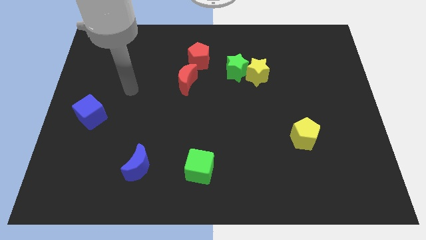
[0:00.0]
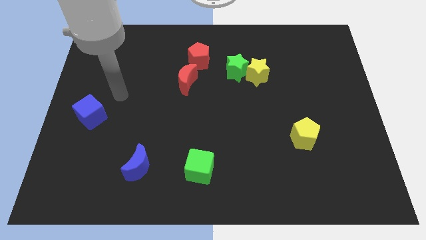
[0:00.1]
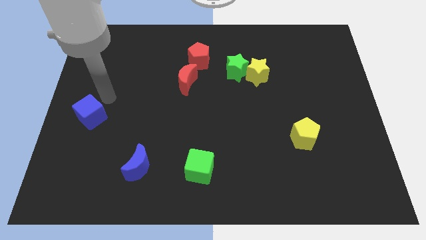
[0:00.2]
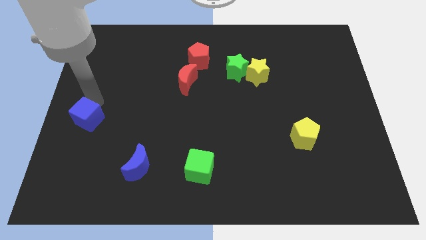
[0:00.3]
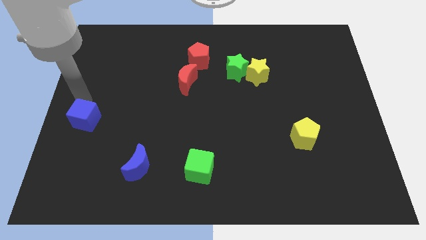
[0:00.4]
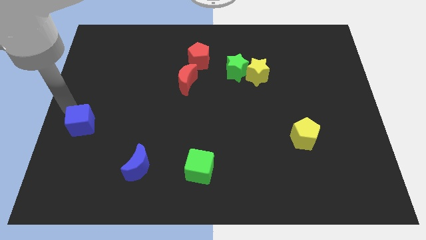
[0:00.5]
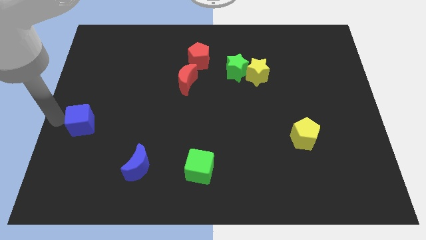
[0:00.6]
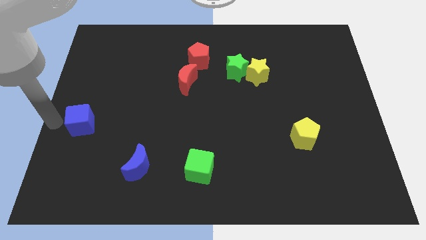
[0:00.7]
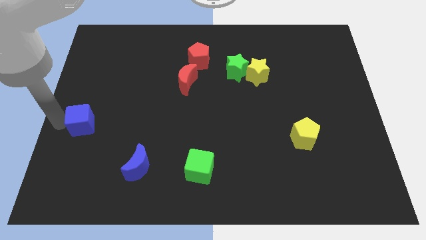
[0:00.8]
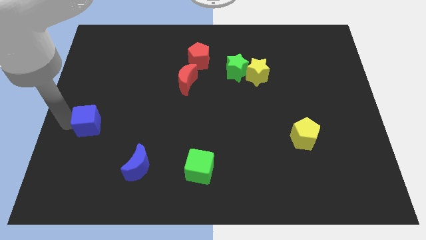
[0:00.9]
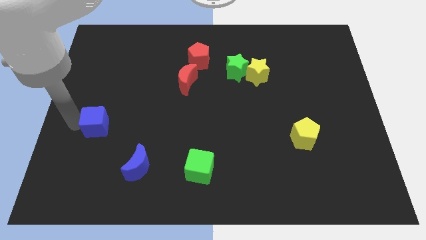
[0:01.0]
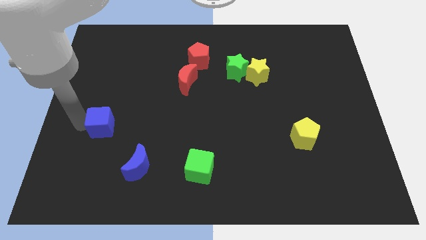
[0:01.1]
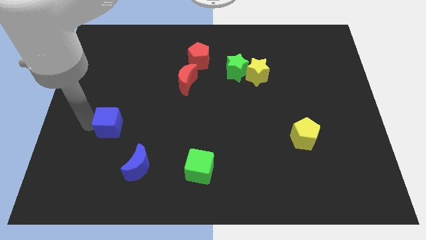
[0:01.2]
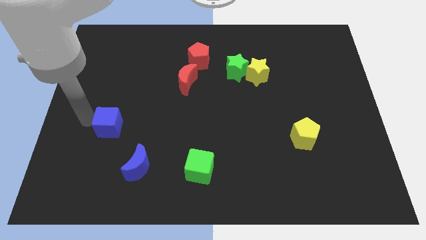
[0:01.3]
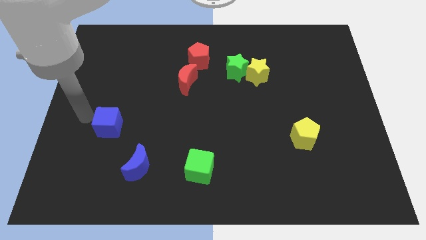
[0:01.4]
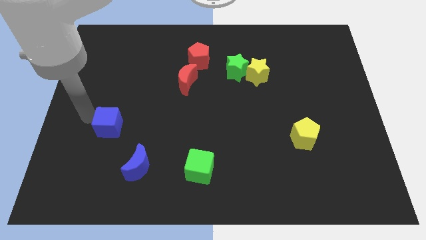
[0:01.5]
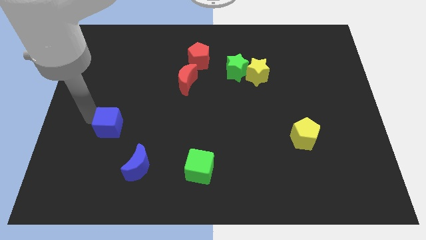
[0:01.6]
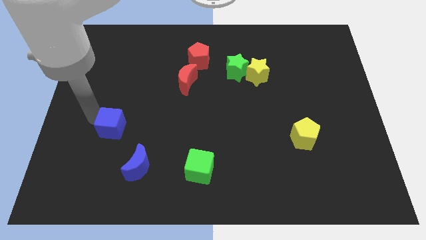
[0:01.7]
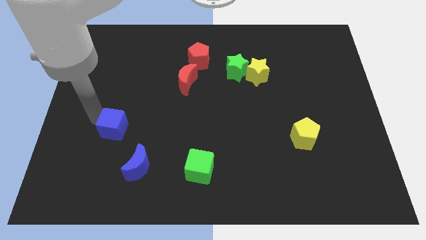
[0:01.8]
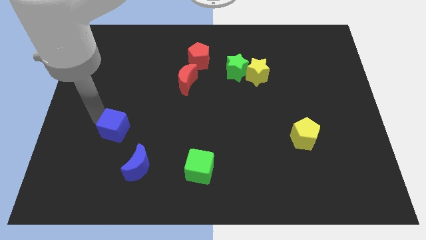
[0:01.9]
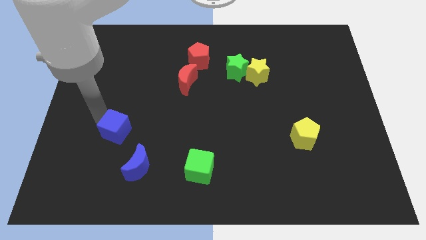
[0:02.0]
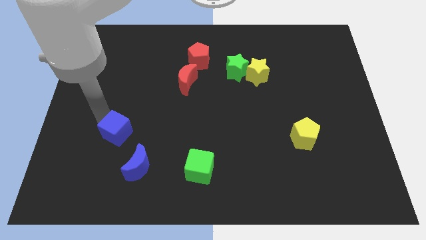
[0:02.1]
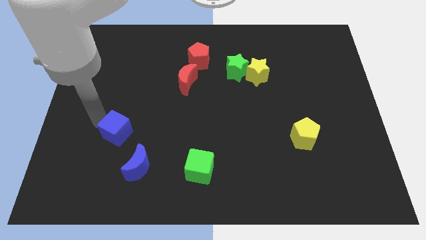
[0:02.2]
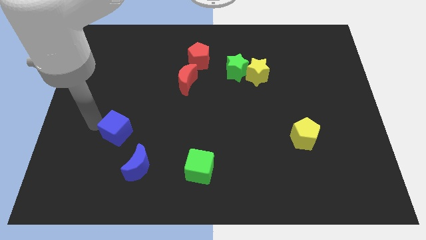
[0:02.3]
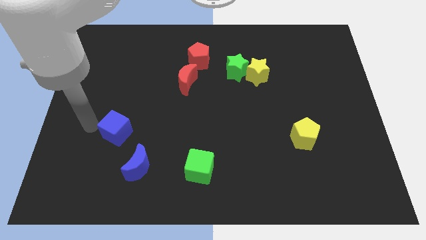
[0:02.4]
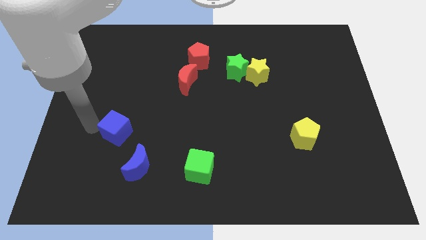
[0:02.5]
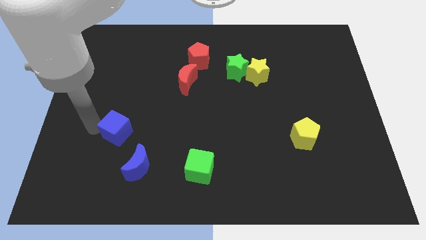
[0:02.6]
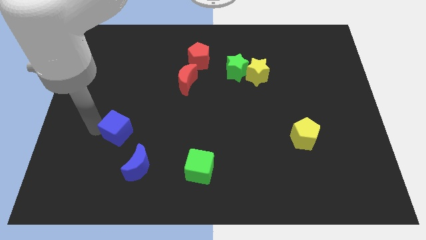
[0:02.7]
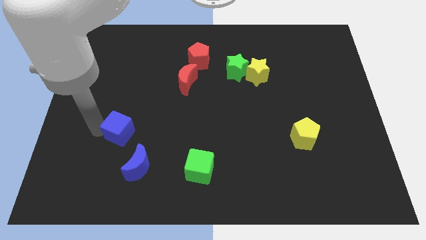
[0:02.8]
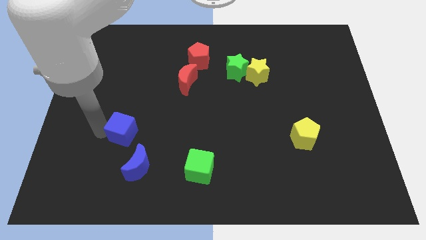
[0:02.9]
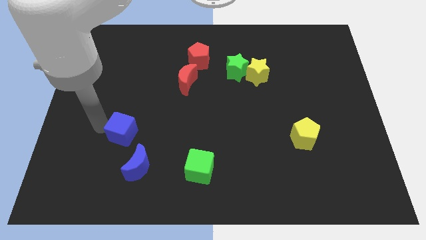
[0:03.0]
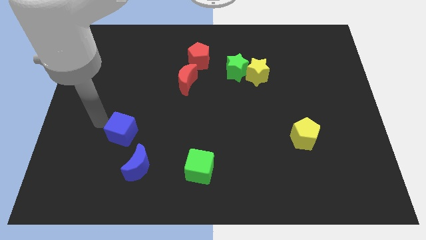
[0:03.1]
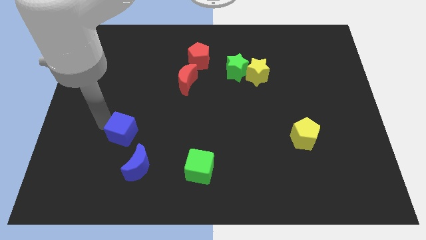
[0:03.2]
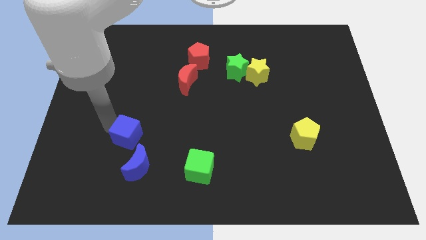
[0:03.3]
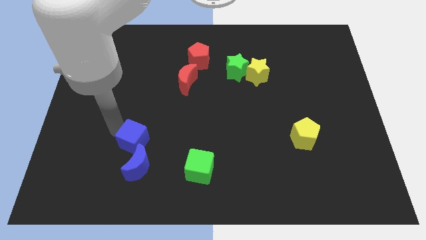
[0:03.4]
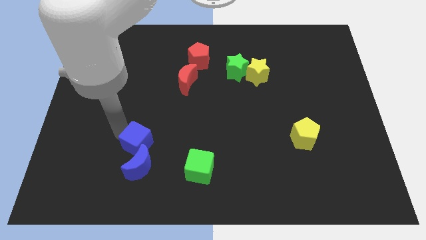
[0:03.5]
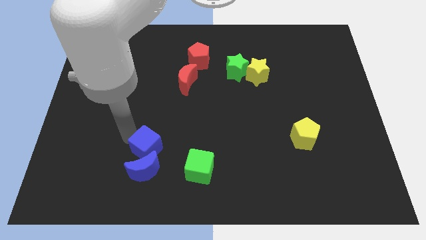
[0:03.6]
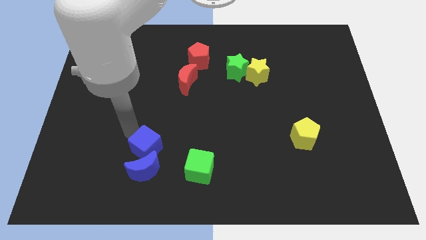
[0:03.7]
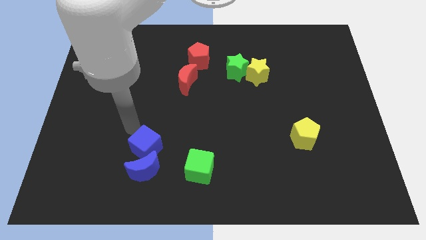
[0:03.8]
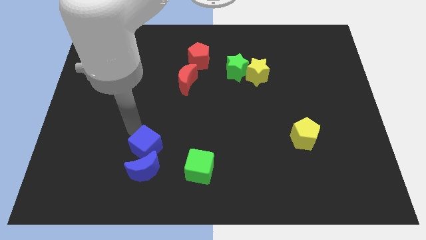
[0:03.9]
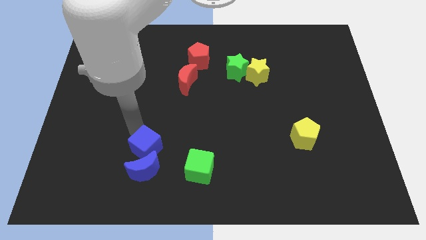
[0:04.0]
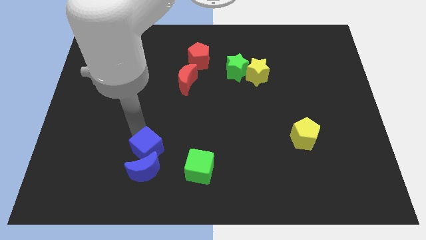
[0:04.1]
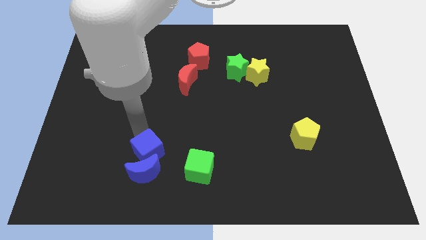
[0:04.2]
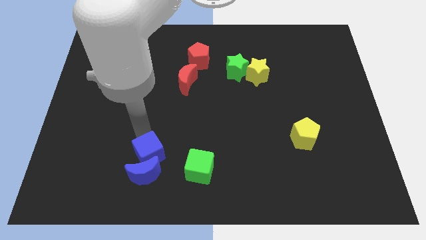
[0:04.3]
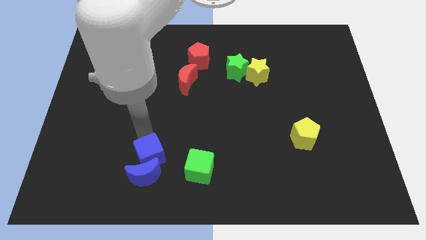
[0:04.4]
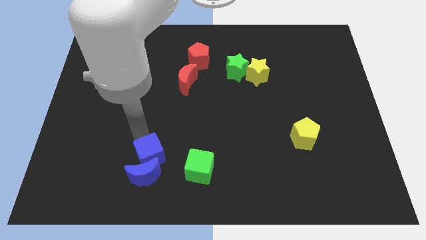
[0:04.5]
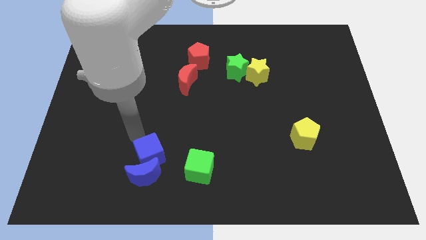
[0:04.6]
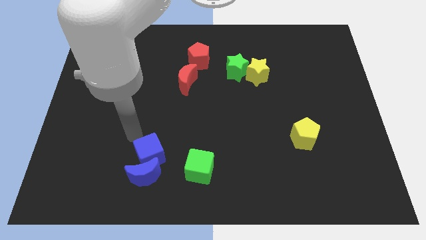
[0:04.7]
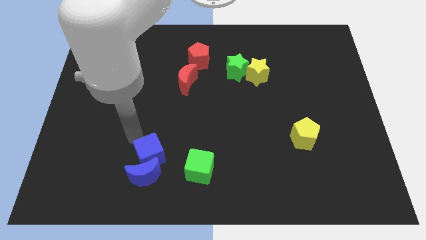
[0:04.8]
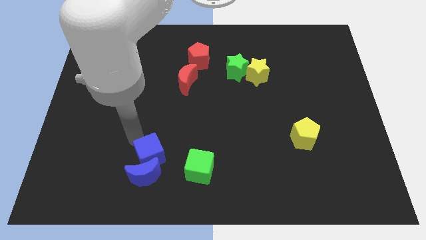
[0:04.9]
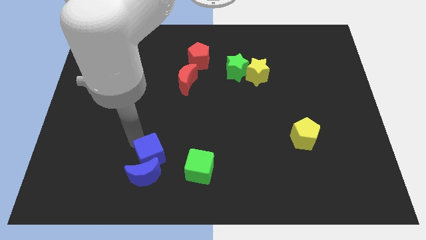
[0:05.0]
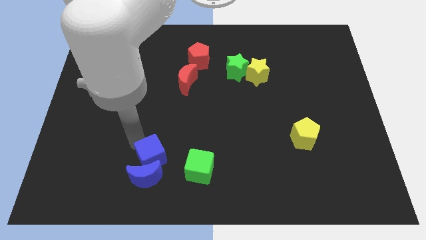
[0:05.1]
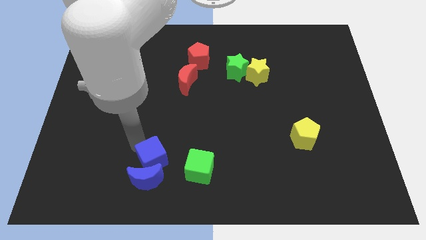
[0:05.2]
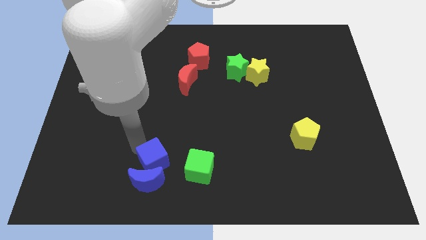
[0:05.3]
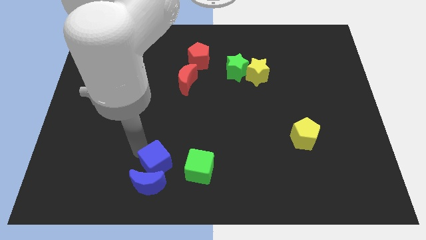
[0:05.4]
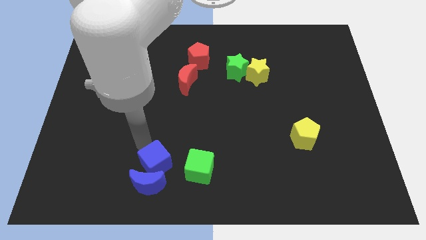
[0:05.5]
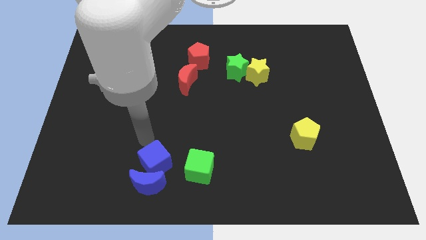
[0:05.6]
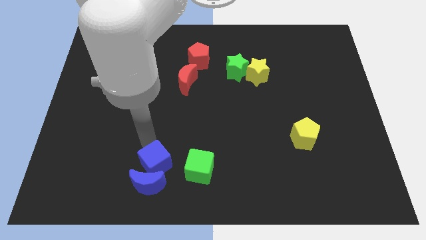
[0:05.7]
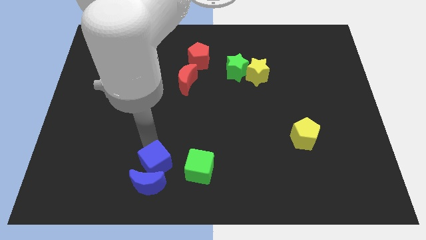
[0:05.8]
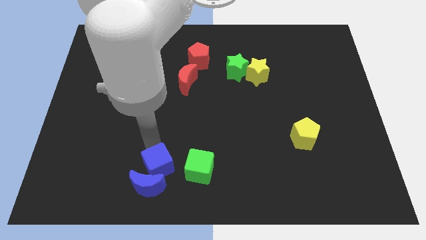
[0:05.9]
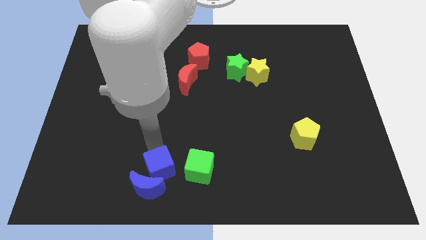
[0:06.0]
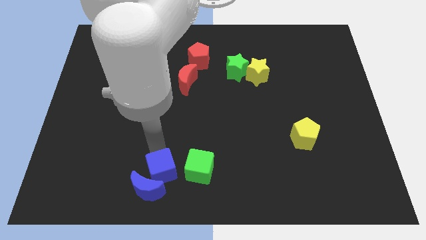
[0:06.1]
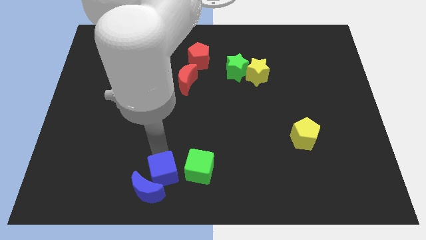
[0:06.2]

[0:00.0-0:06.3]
put the blue cube to the bottom side

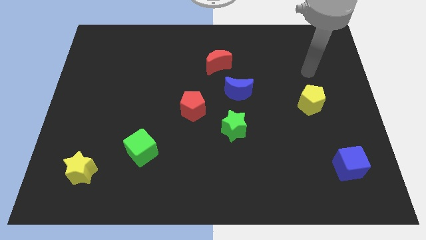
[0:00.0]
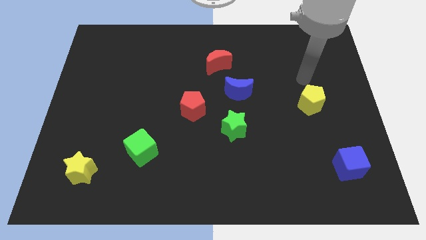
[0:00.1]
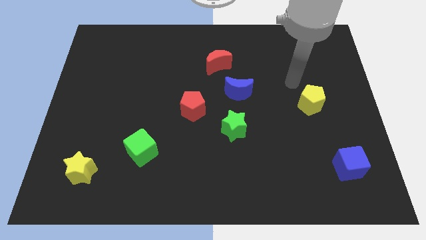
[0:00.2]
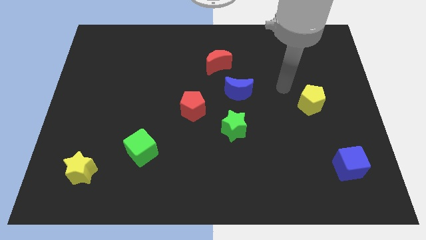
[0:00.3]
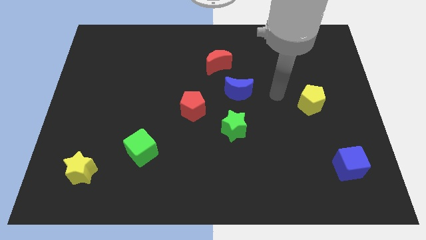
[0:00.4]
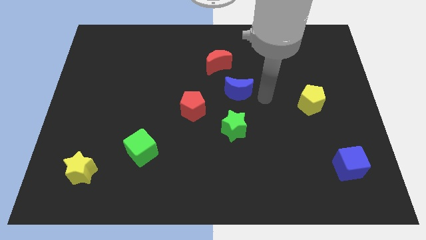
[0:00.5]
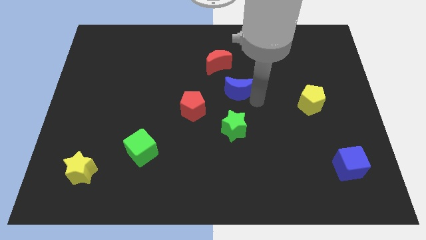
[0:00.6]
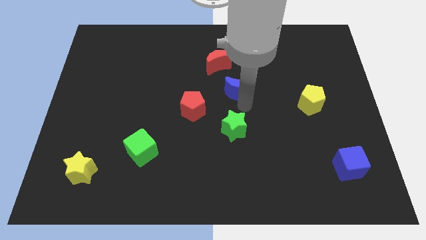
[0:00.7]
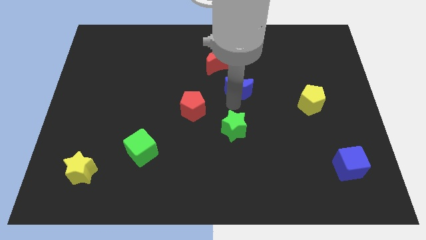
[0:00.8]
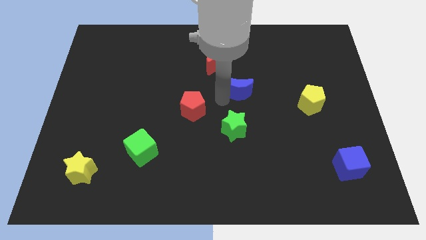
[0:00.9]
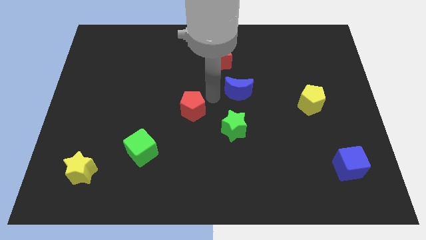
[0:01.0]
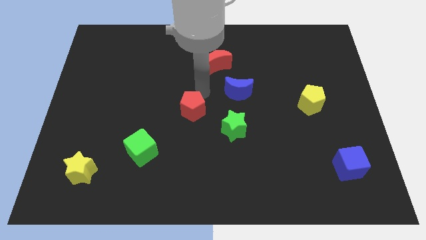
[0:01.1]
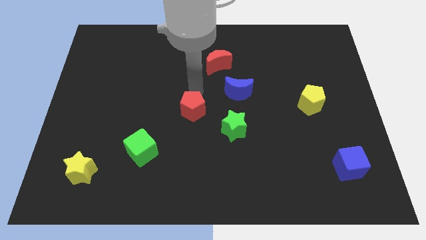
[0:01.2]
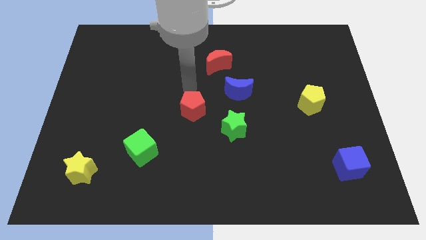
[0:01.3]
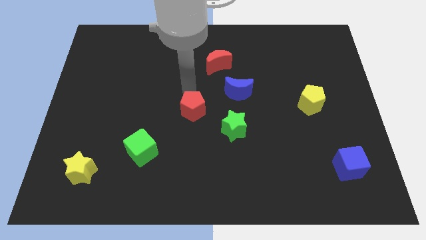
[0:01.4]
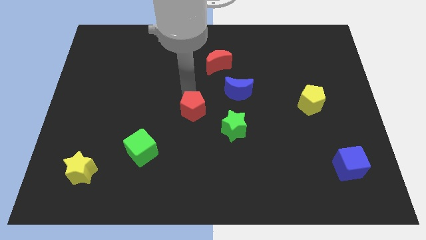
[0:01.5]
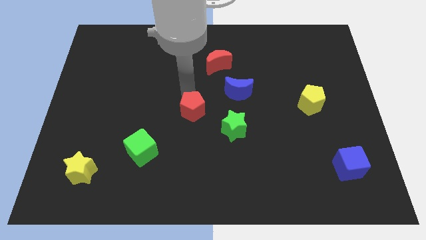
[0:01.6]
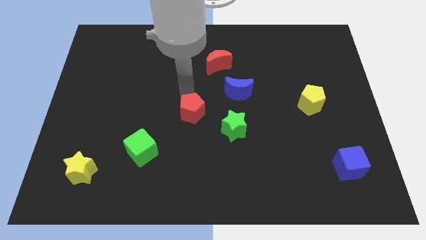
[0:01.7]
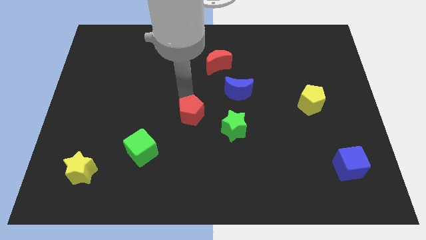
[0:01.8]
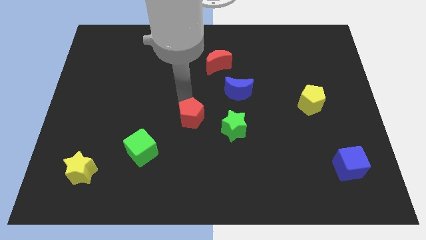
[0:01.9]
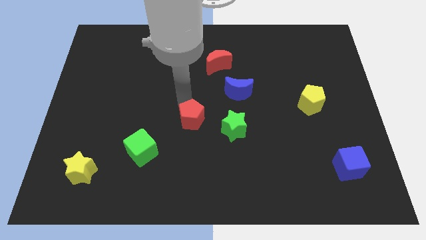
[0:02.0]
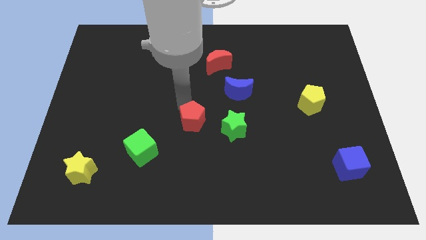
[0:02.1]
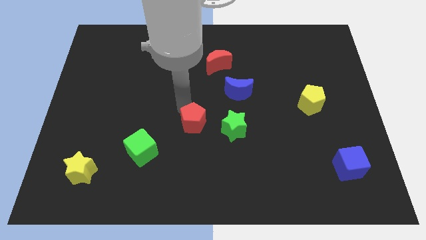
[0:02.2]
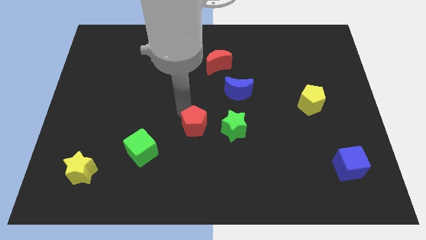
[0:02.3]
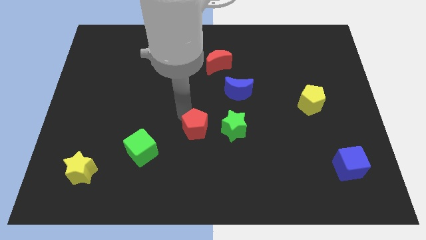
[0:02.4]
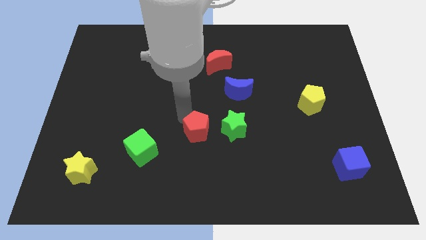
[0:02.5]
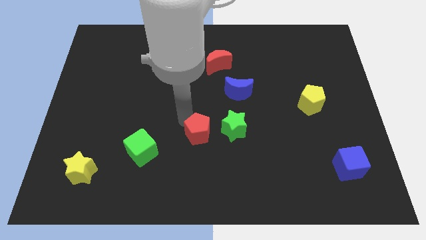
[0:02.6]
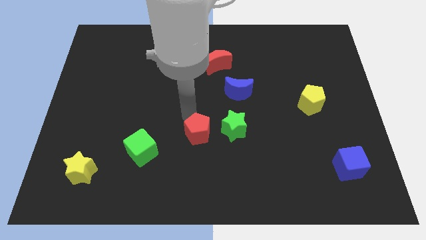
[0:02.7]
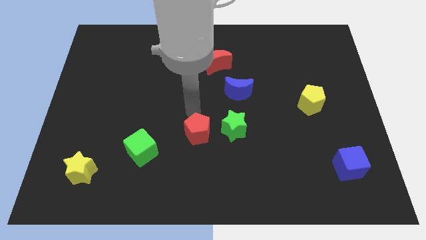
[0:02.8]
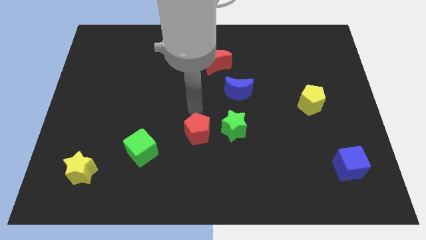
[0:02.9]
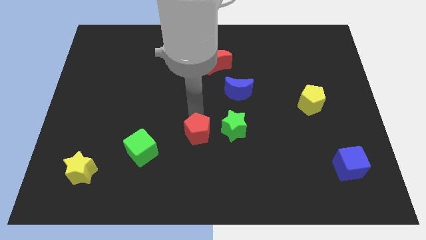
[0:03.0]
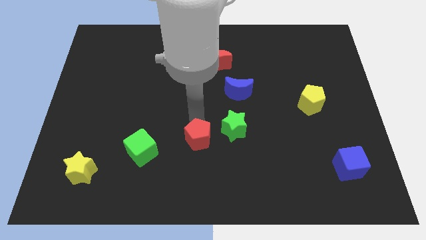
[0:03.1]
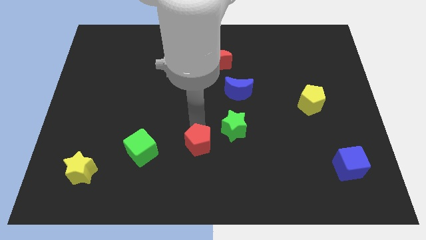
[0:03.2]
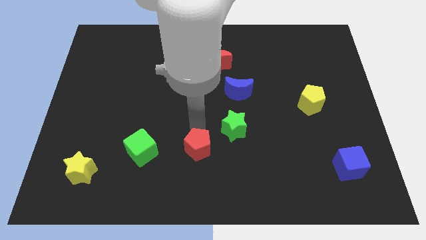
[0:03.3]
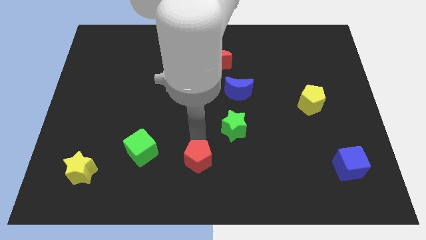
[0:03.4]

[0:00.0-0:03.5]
push the red pentagon to the bottom
